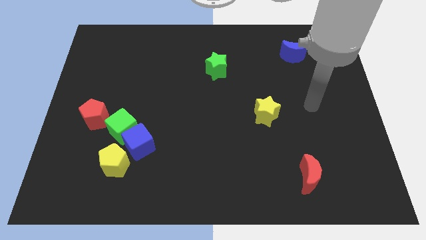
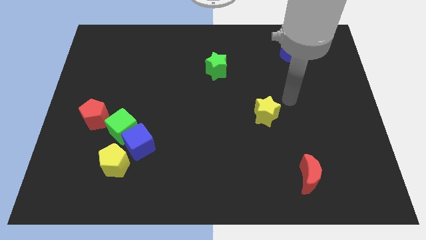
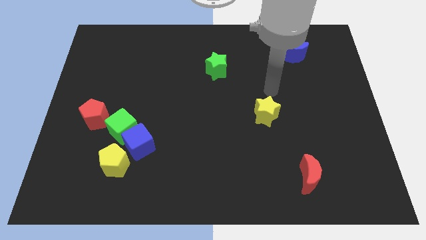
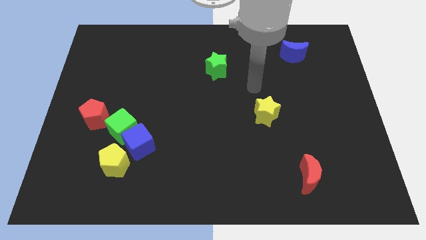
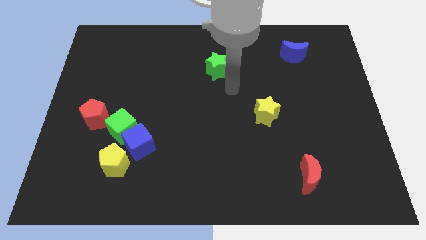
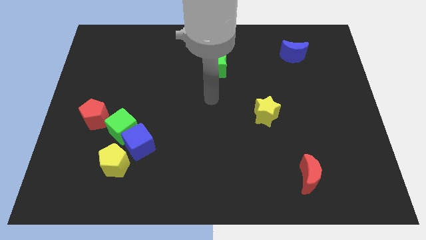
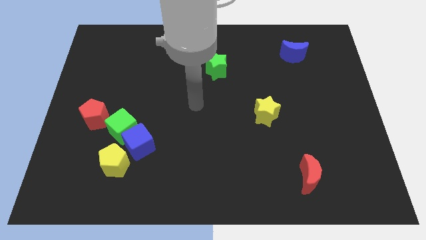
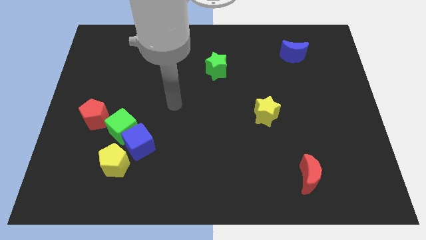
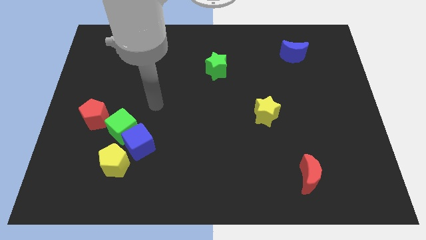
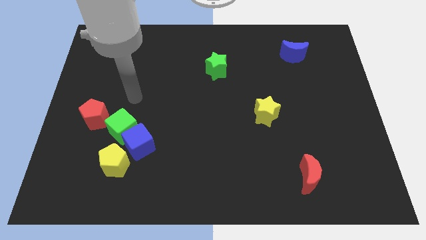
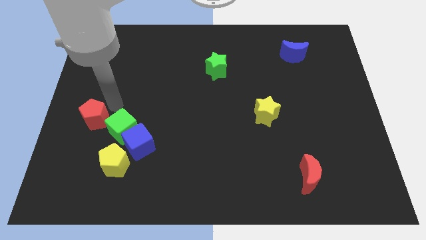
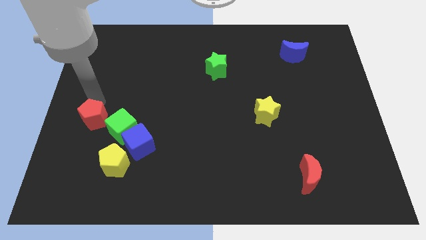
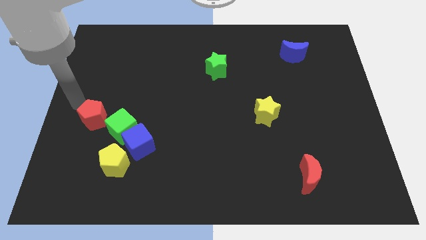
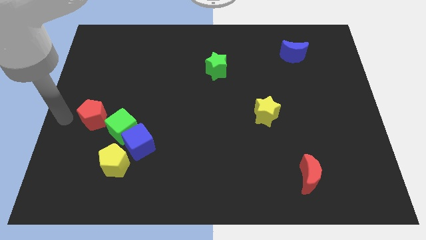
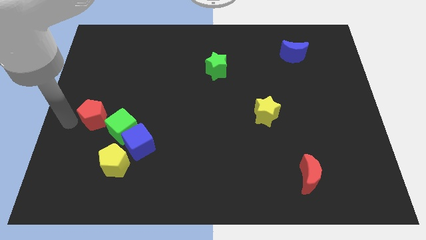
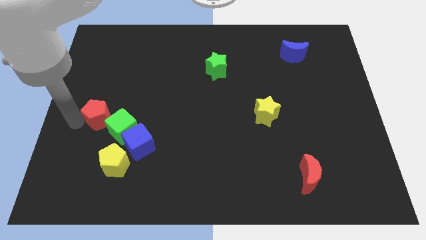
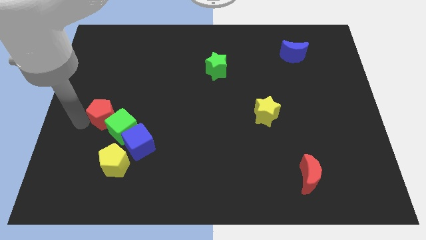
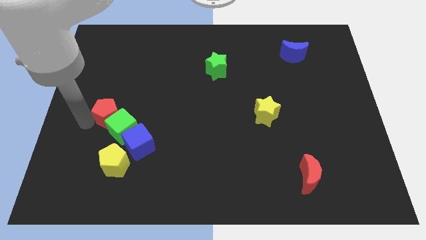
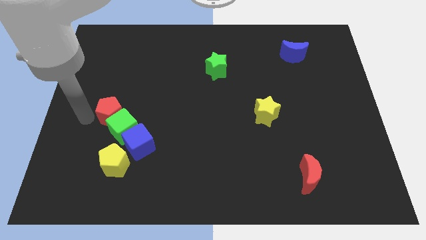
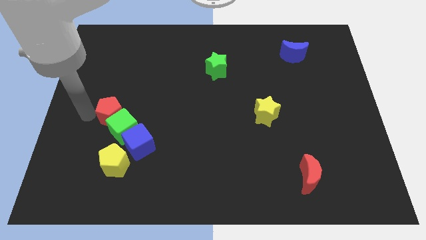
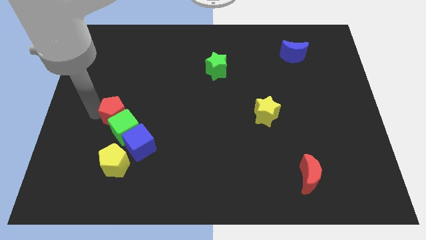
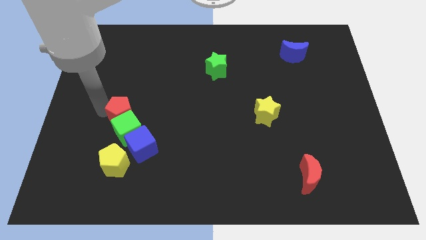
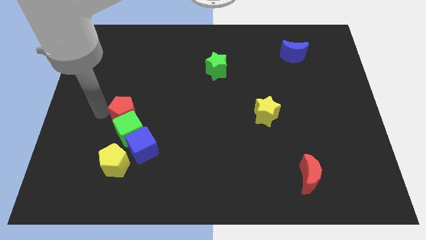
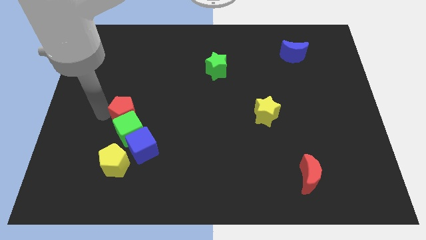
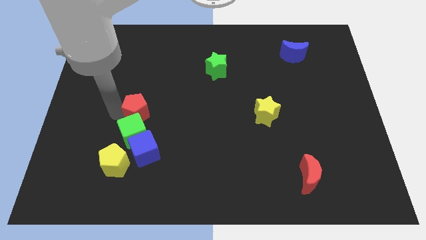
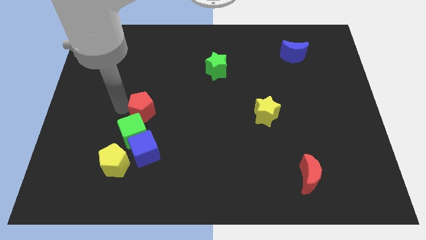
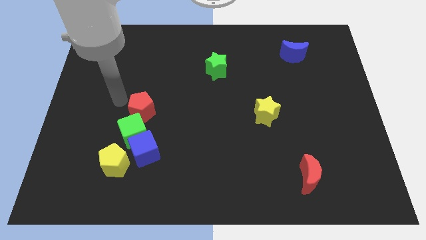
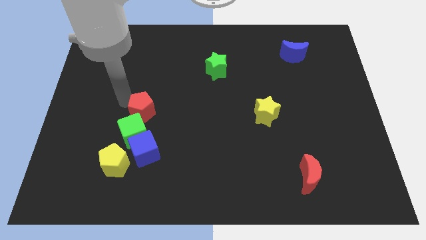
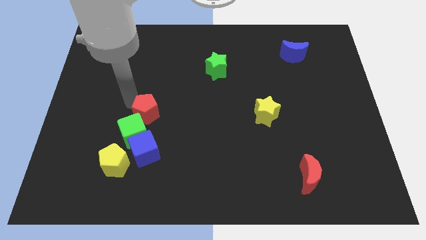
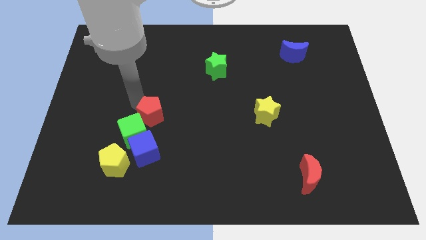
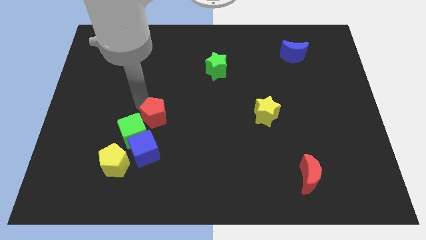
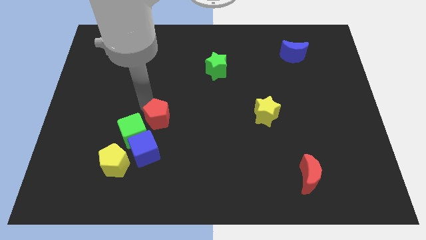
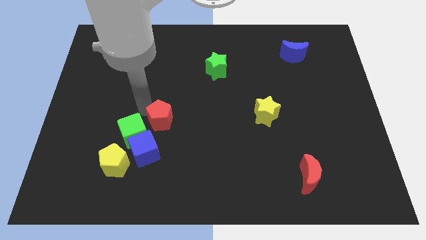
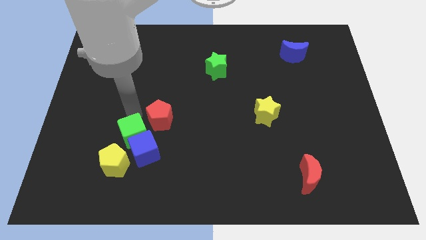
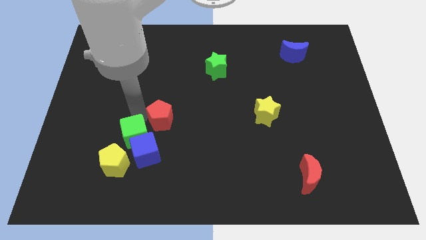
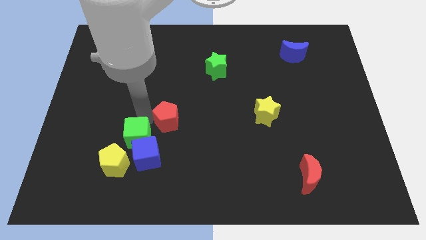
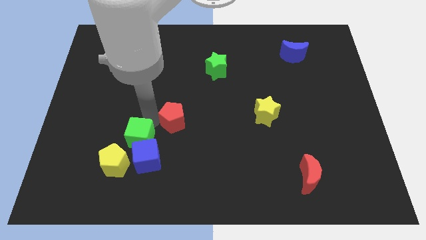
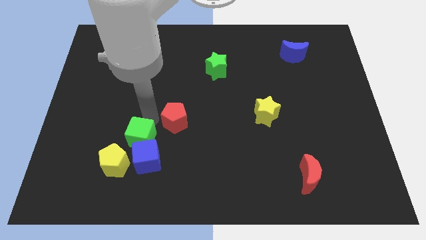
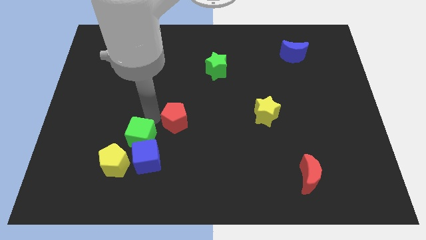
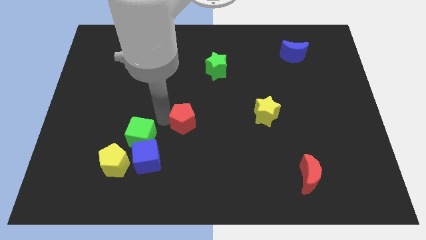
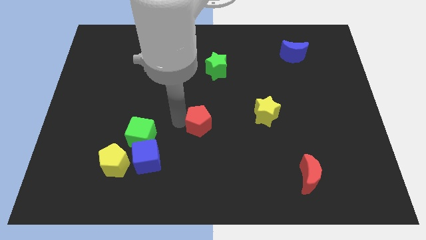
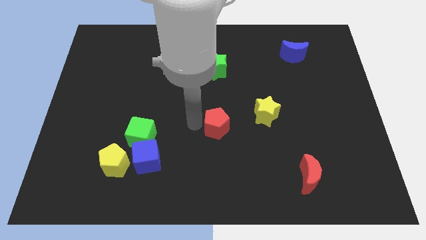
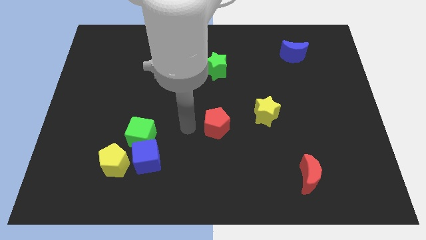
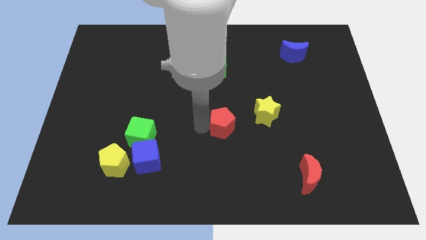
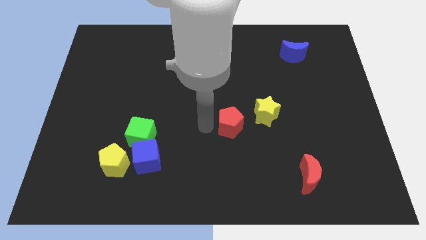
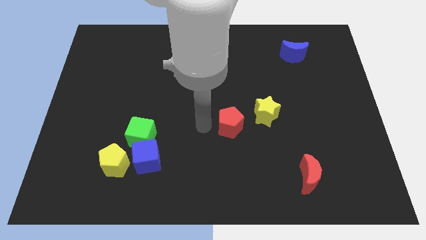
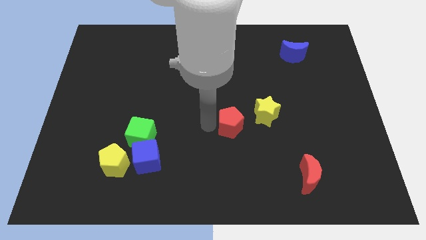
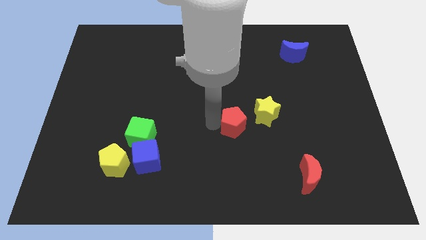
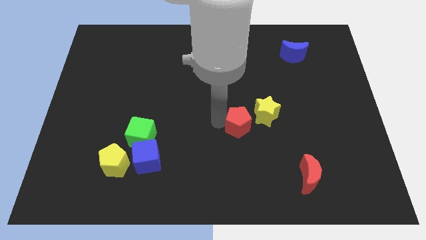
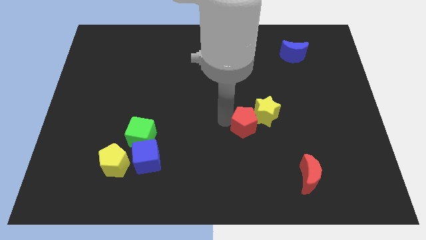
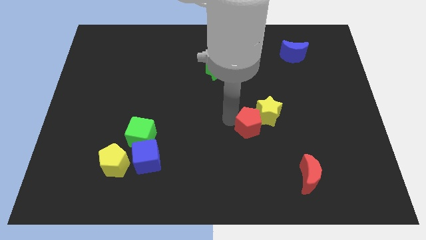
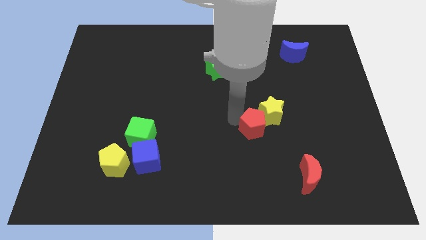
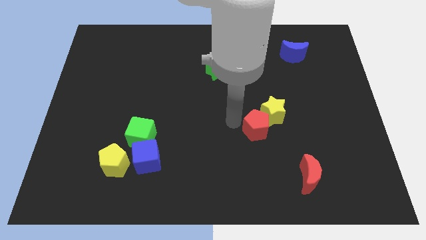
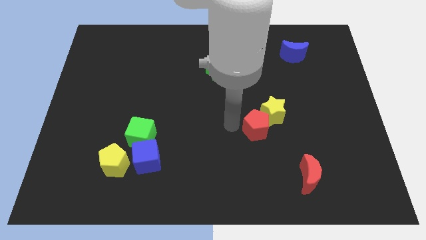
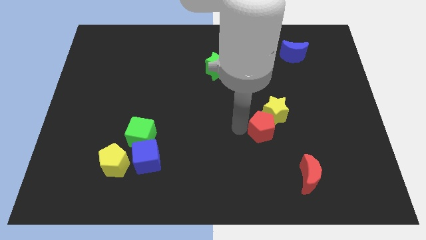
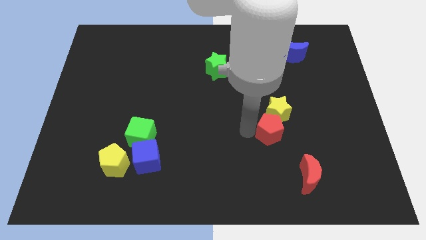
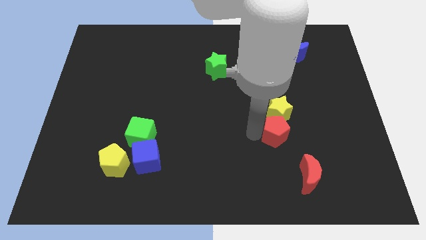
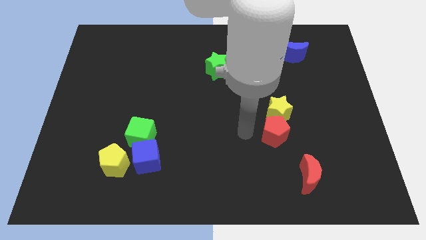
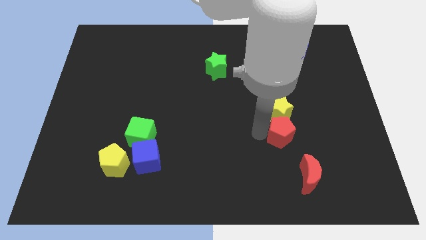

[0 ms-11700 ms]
slide the red pentagon to the top side of the red moon

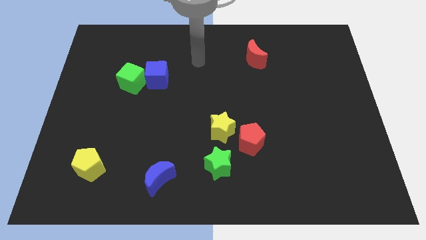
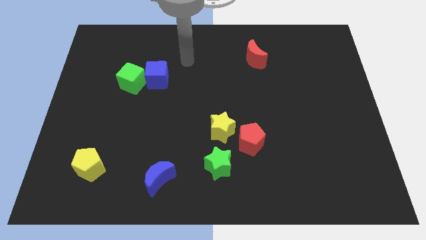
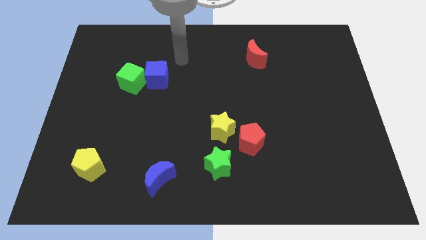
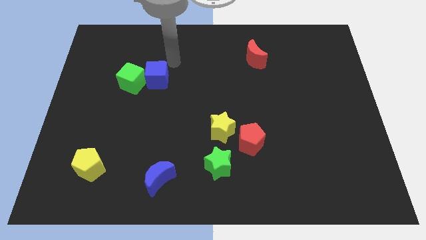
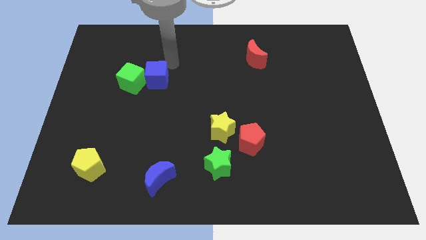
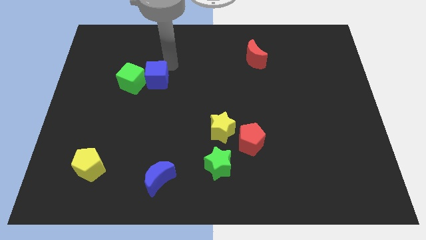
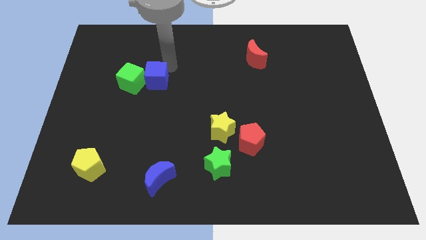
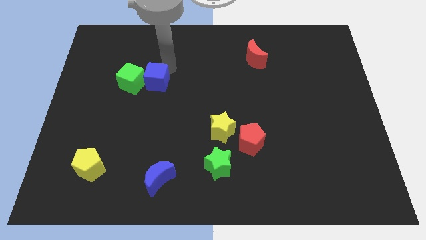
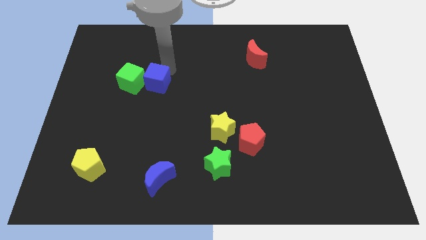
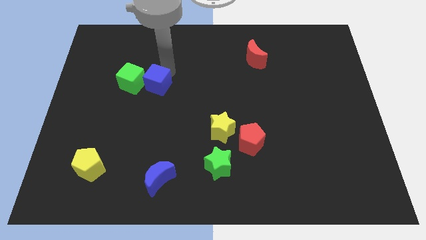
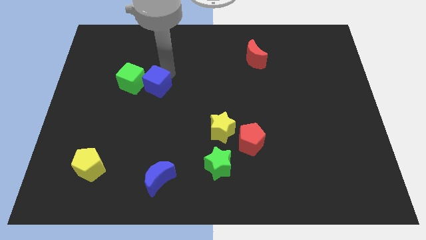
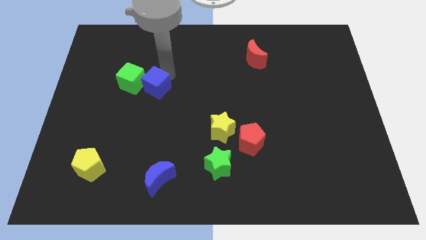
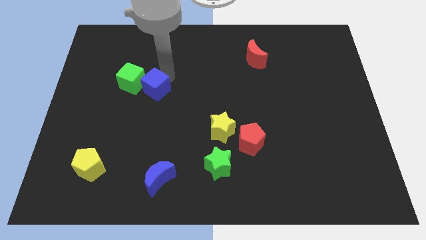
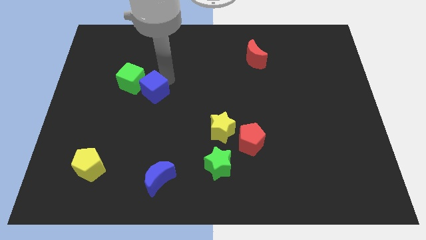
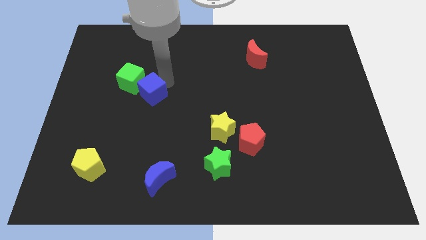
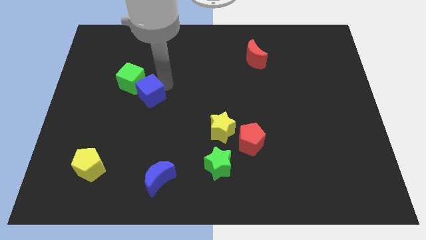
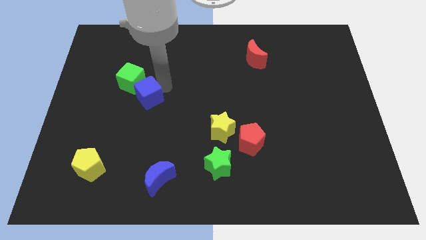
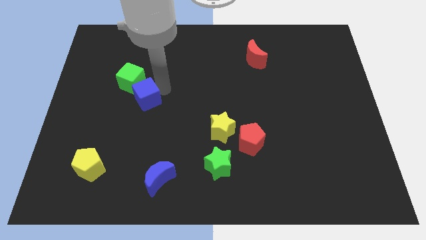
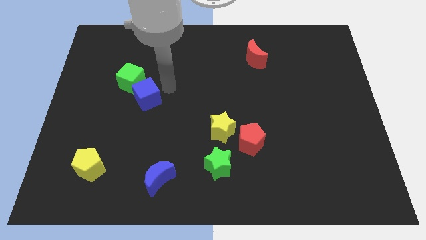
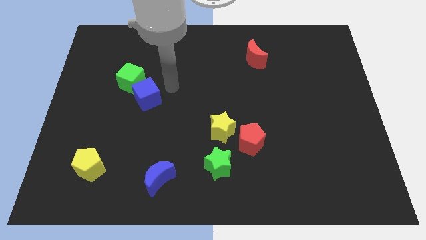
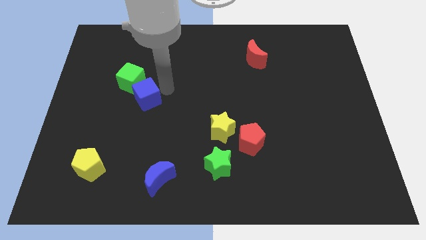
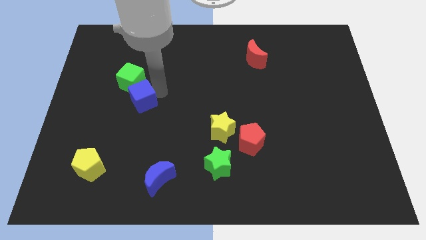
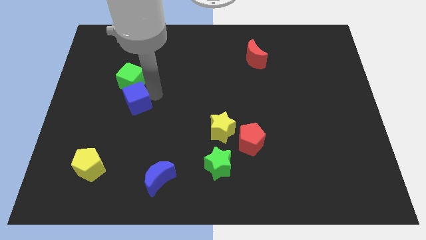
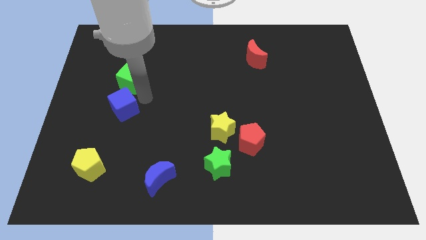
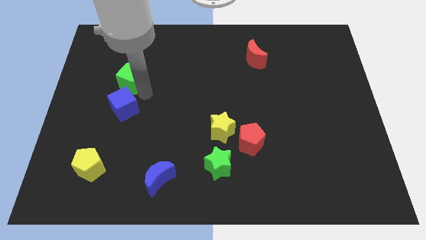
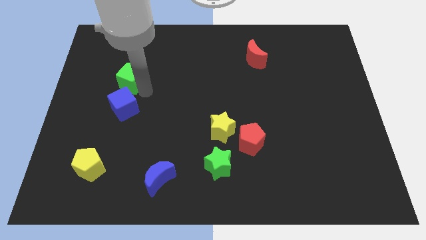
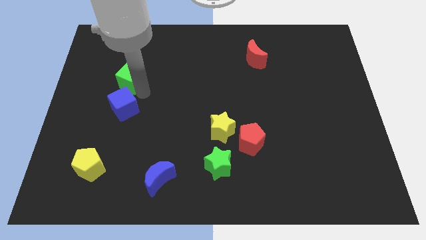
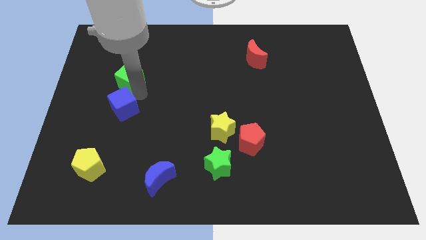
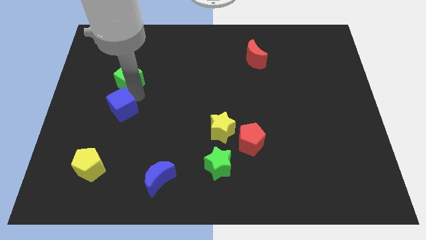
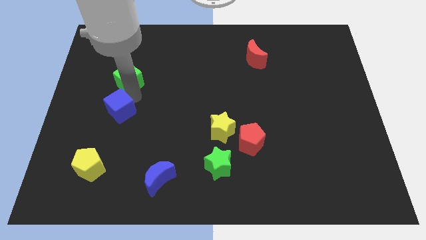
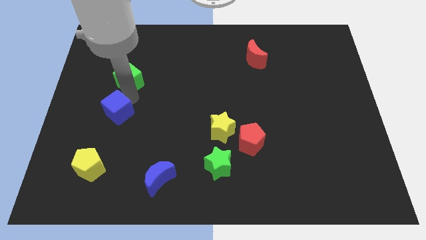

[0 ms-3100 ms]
move the blue cube to the top side of the yellow pentagon
